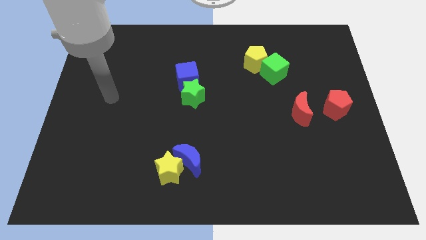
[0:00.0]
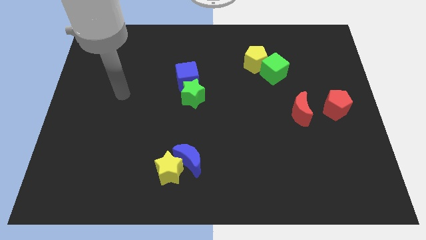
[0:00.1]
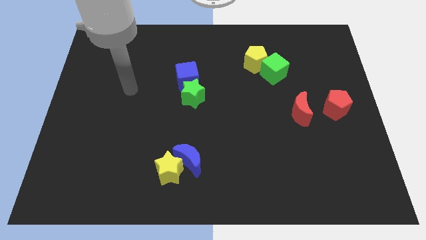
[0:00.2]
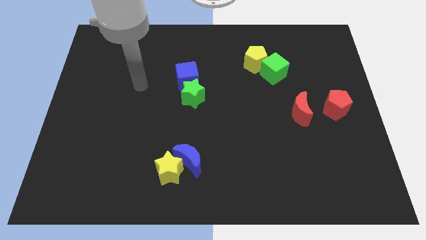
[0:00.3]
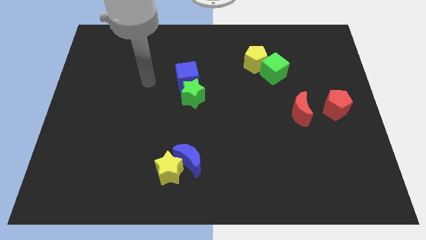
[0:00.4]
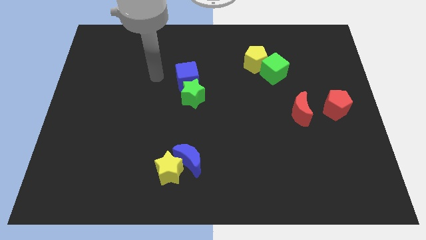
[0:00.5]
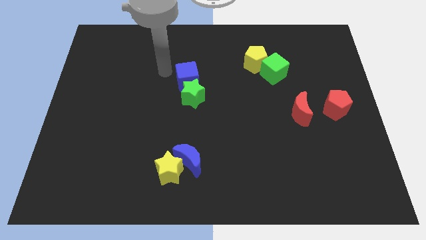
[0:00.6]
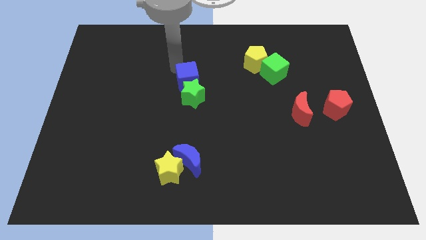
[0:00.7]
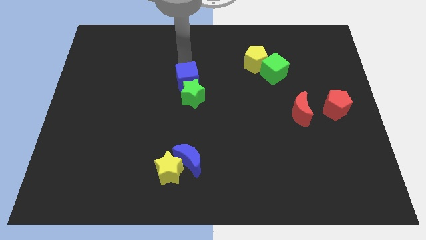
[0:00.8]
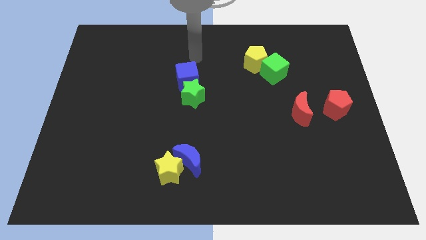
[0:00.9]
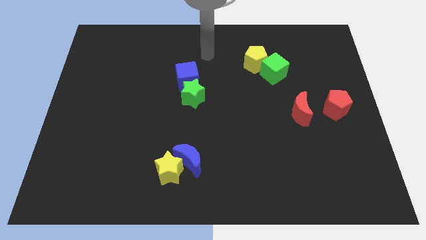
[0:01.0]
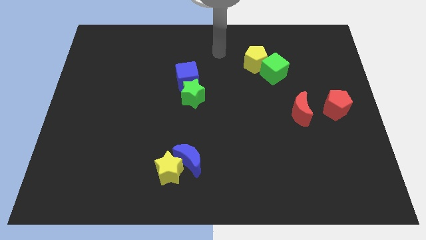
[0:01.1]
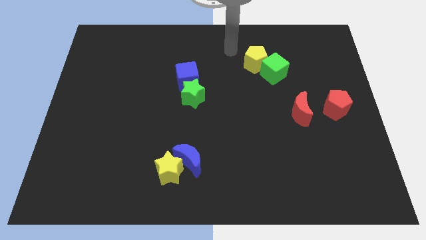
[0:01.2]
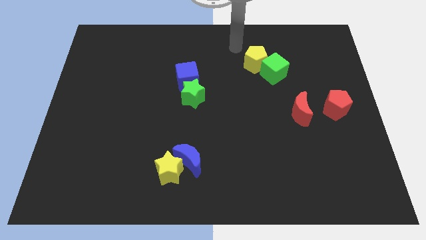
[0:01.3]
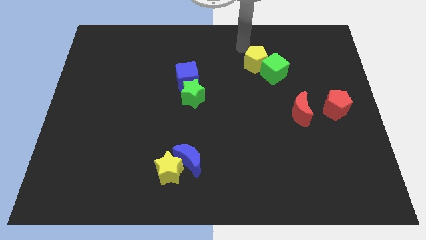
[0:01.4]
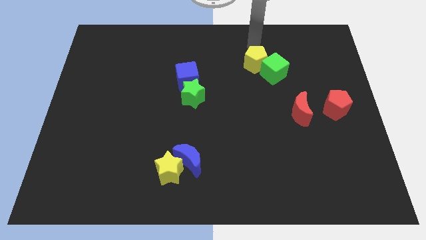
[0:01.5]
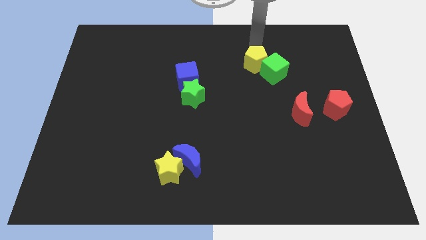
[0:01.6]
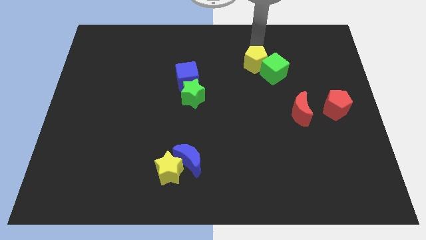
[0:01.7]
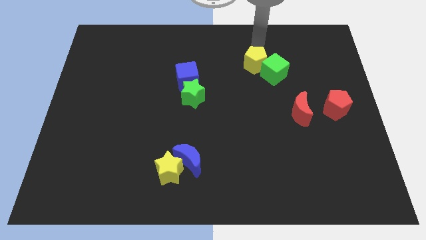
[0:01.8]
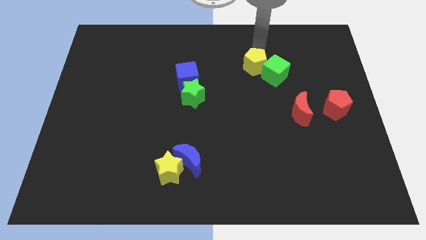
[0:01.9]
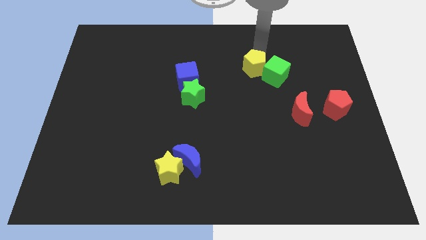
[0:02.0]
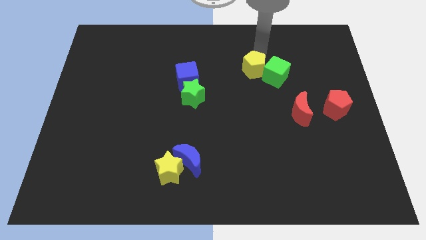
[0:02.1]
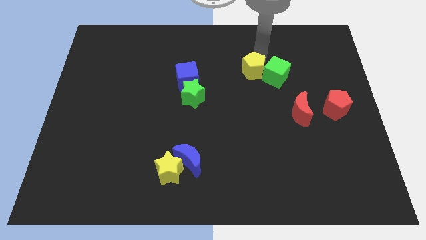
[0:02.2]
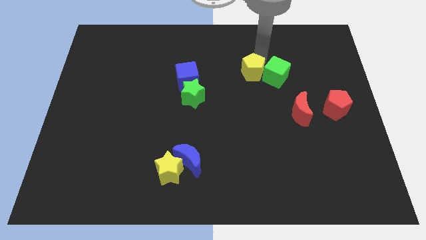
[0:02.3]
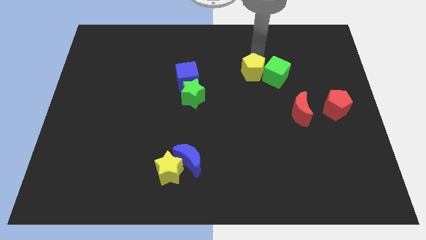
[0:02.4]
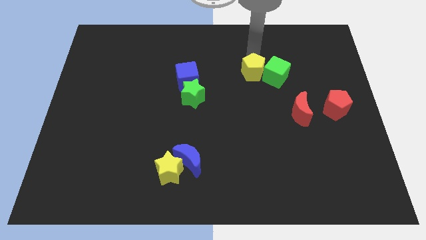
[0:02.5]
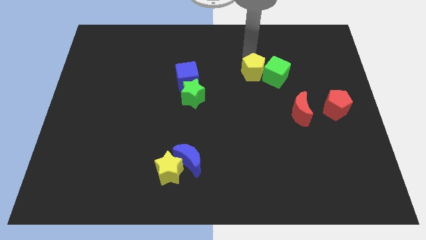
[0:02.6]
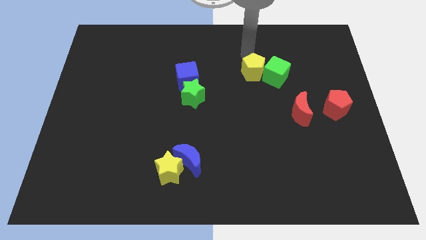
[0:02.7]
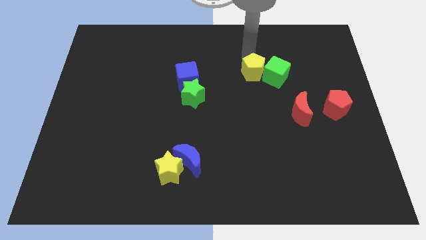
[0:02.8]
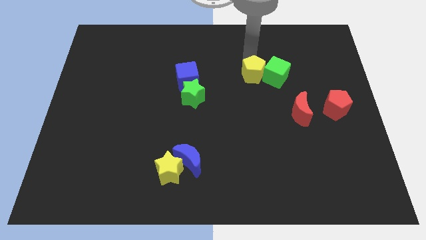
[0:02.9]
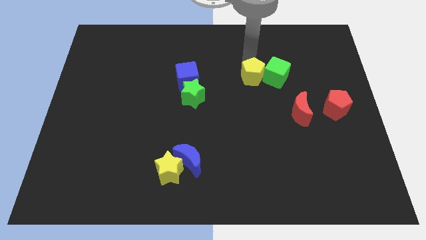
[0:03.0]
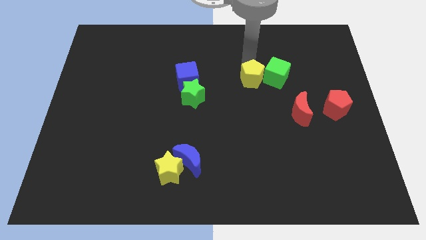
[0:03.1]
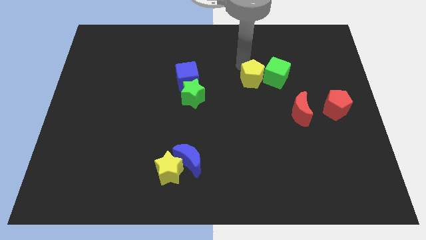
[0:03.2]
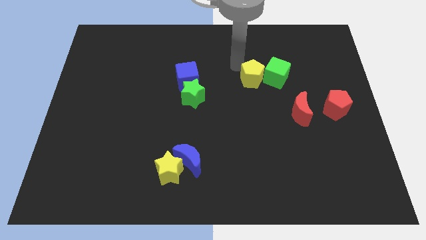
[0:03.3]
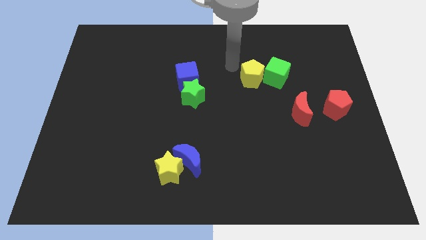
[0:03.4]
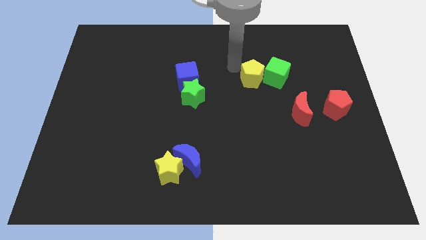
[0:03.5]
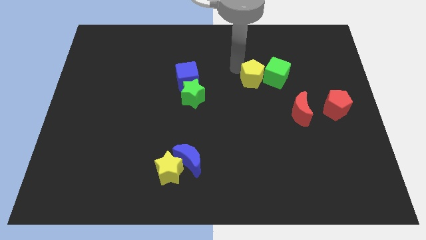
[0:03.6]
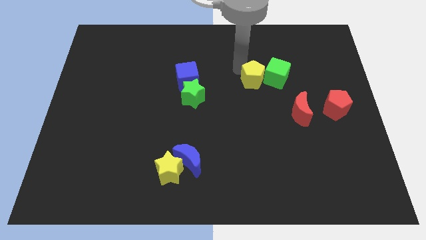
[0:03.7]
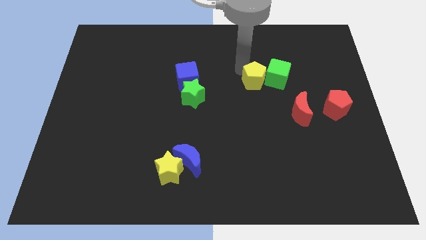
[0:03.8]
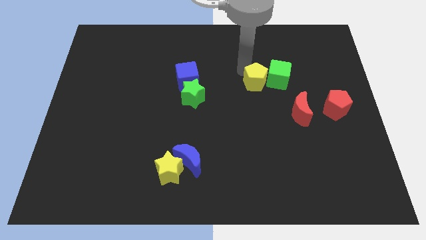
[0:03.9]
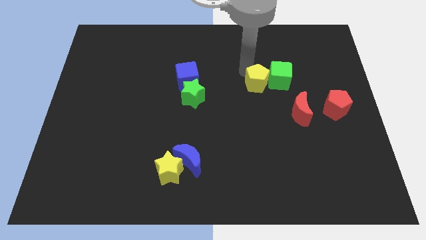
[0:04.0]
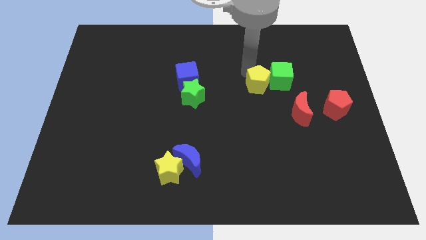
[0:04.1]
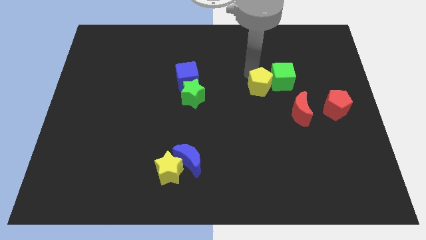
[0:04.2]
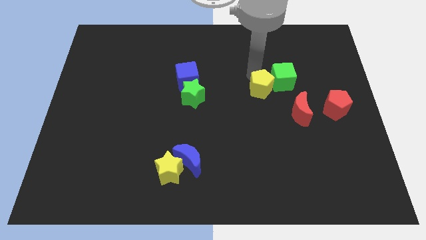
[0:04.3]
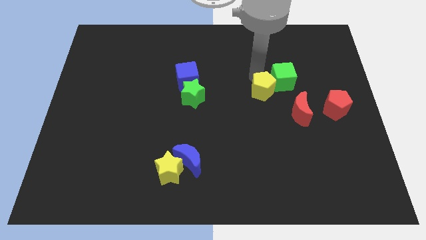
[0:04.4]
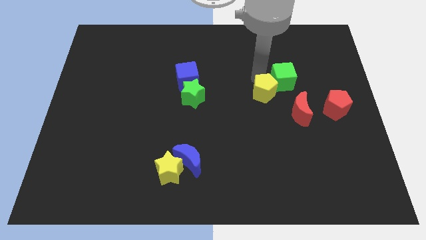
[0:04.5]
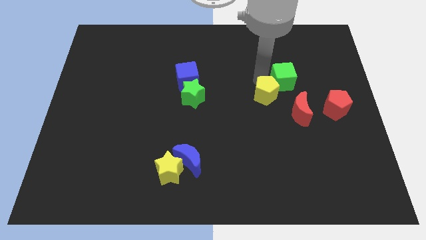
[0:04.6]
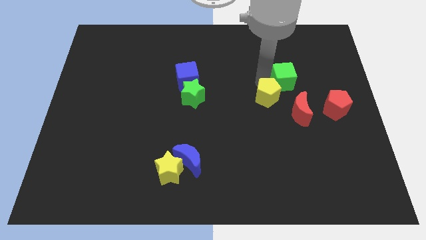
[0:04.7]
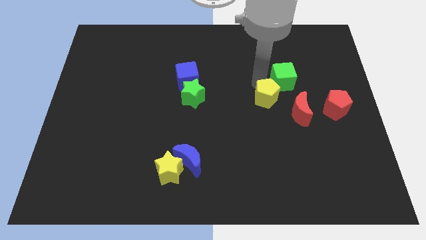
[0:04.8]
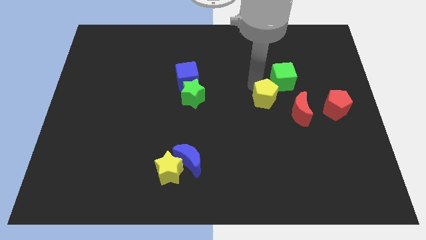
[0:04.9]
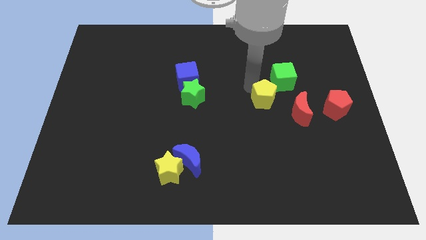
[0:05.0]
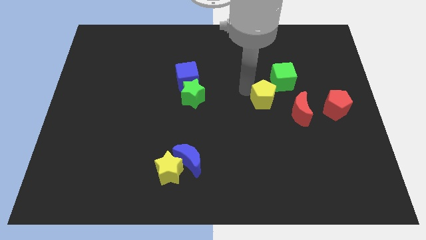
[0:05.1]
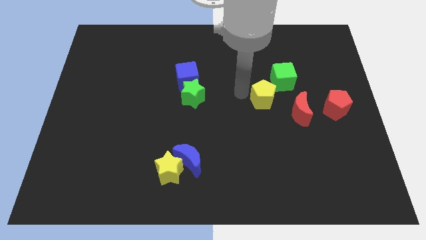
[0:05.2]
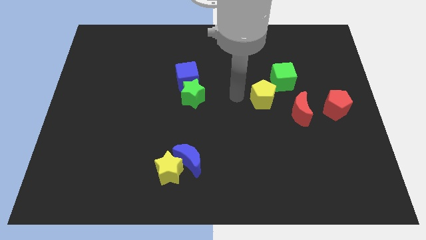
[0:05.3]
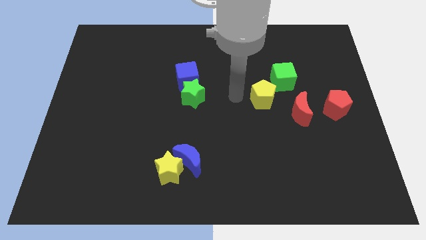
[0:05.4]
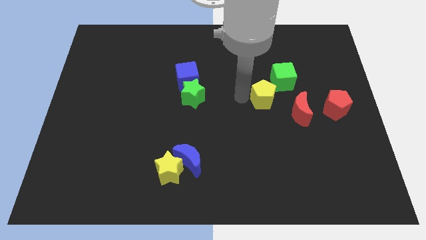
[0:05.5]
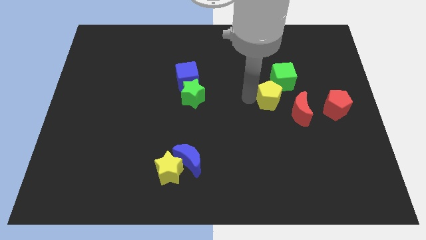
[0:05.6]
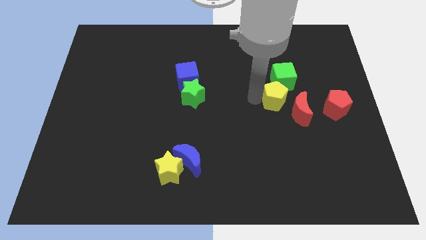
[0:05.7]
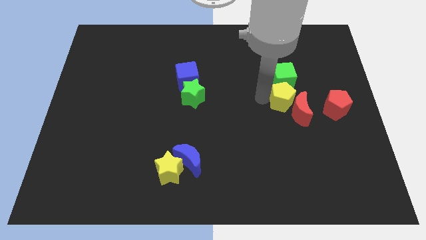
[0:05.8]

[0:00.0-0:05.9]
push the yellow pentagon towards the red moon

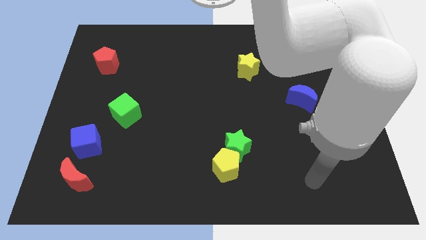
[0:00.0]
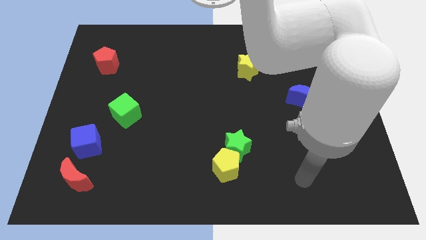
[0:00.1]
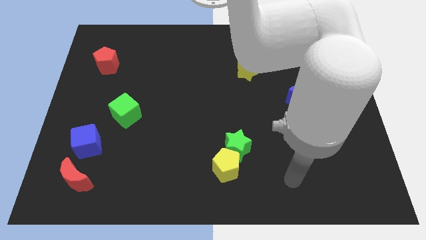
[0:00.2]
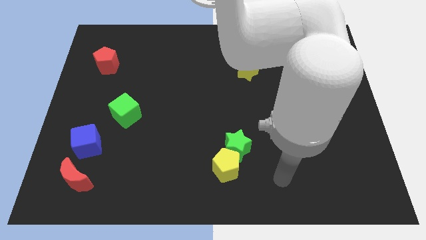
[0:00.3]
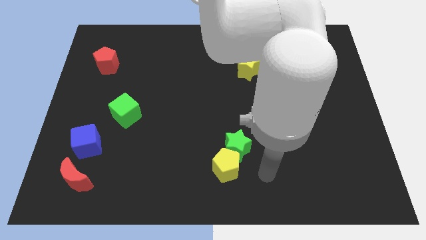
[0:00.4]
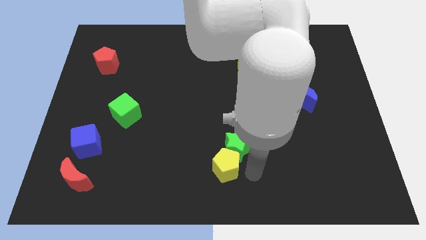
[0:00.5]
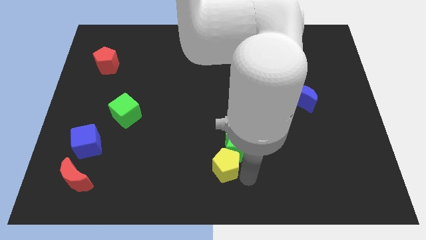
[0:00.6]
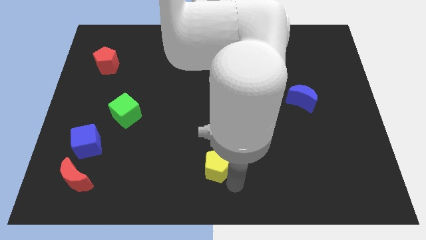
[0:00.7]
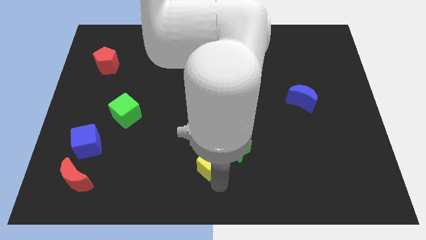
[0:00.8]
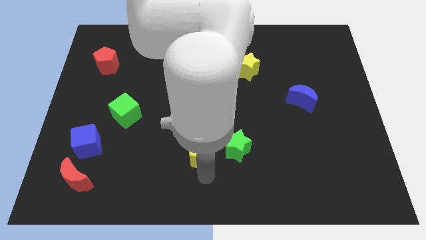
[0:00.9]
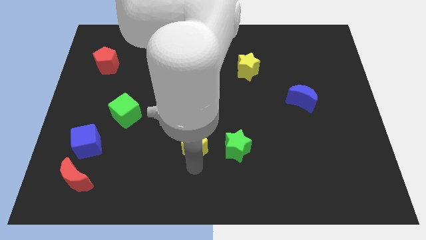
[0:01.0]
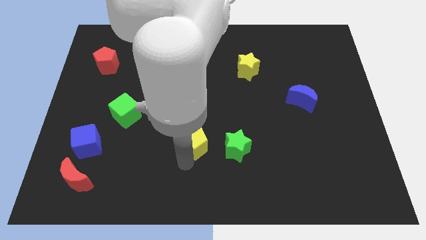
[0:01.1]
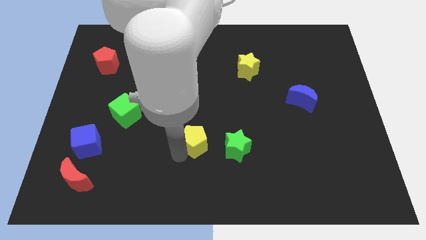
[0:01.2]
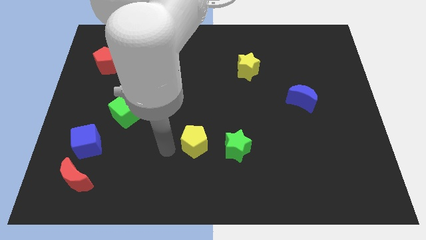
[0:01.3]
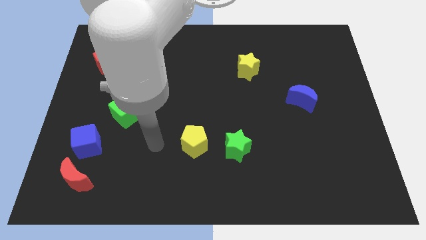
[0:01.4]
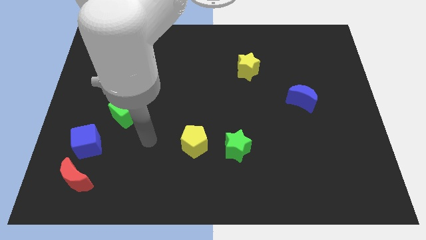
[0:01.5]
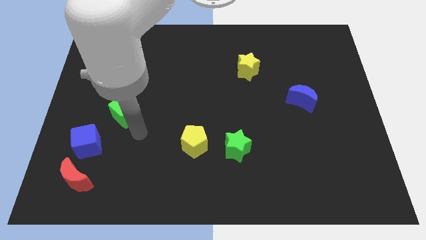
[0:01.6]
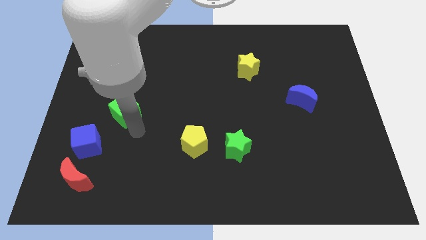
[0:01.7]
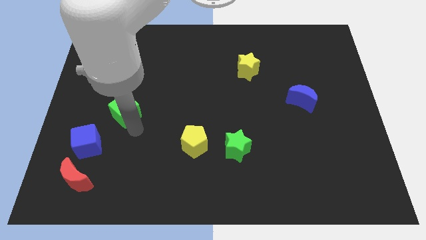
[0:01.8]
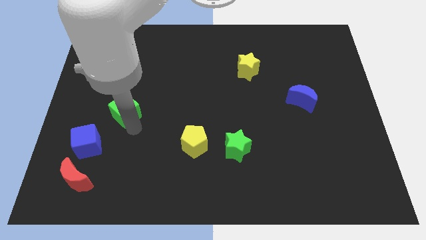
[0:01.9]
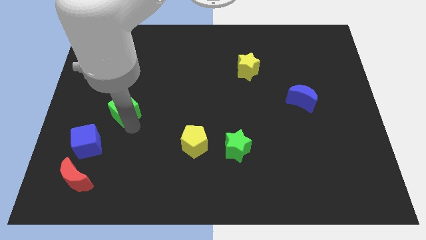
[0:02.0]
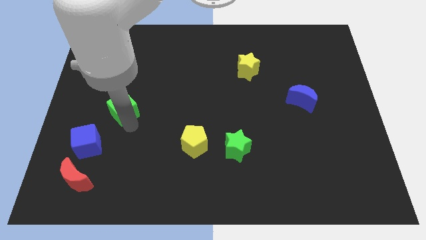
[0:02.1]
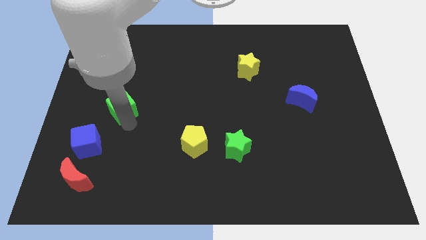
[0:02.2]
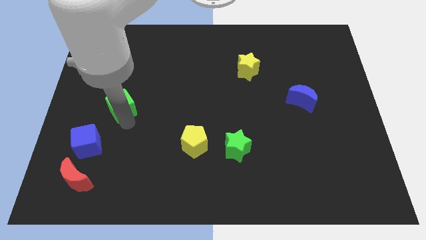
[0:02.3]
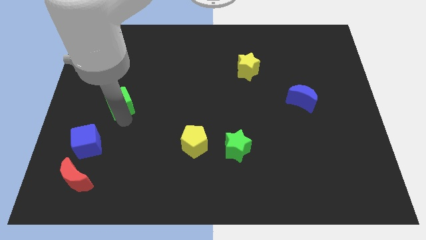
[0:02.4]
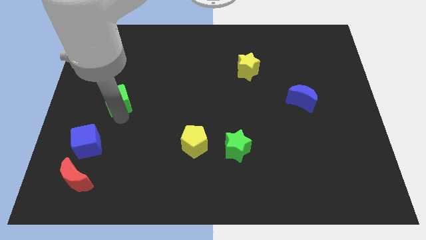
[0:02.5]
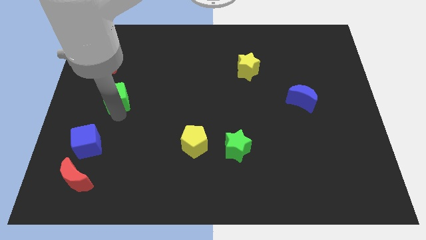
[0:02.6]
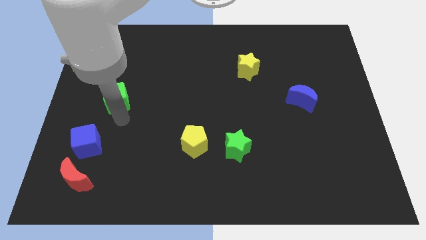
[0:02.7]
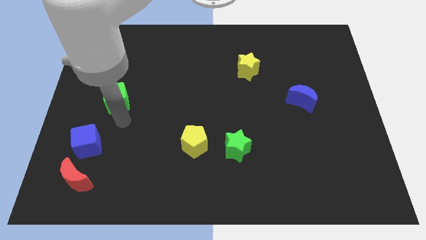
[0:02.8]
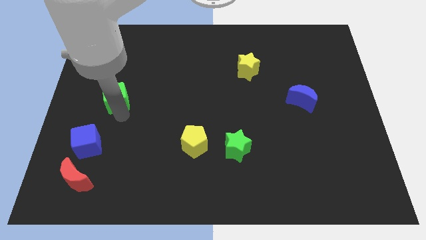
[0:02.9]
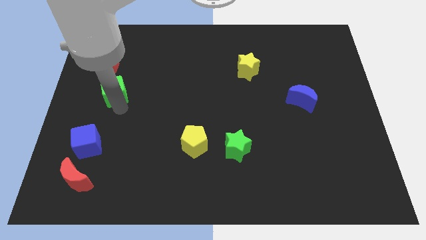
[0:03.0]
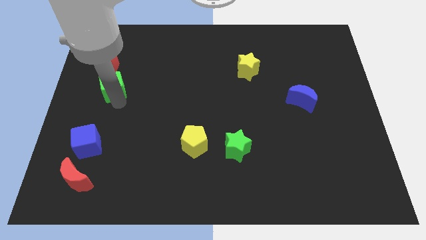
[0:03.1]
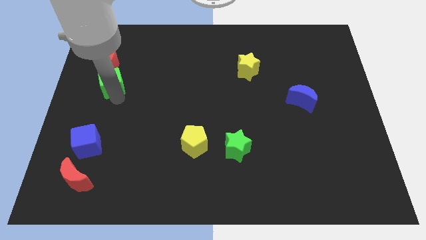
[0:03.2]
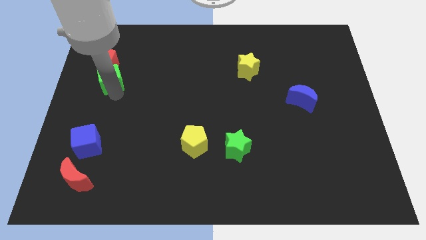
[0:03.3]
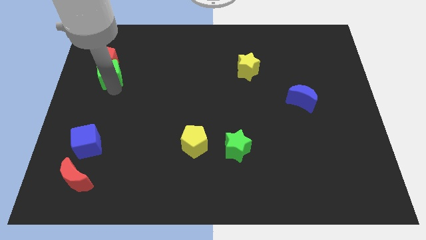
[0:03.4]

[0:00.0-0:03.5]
move the green cube to the red pentagon
